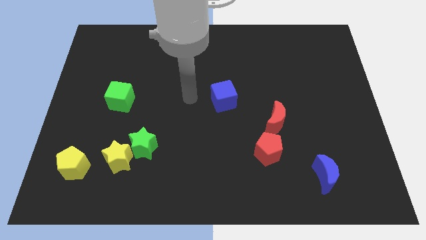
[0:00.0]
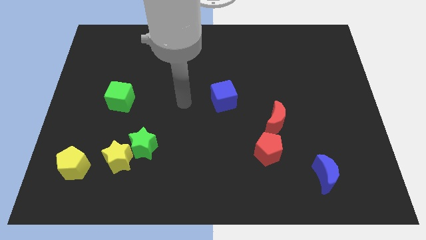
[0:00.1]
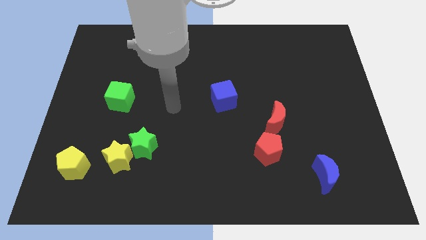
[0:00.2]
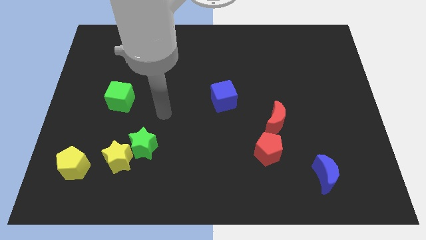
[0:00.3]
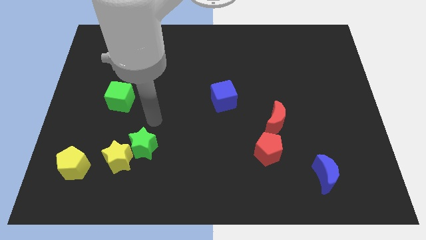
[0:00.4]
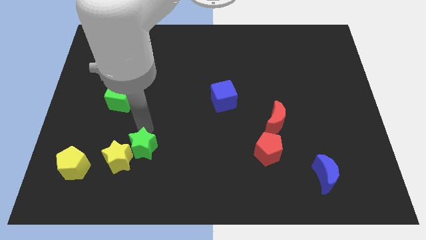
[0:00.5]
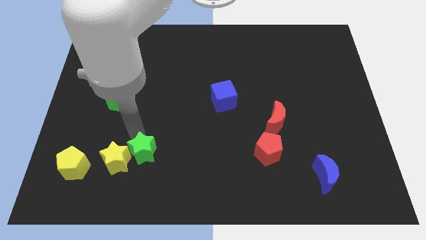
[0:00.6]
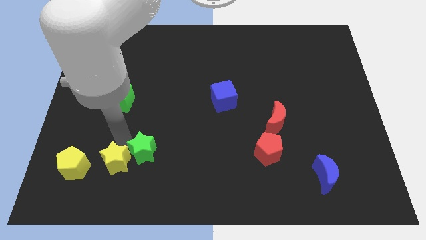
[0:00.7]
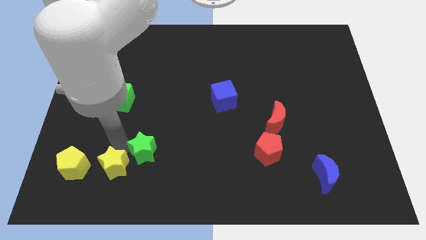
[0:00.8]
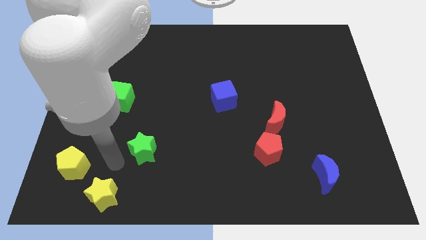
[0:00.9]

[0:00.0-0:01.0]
move the green star away from the yellow star

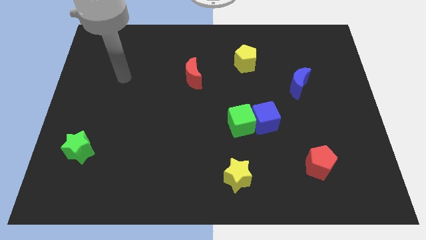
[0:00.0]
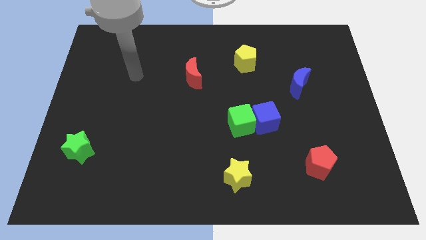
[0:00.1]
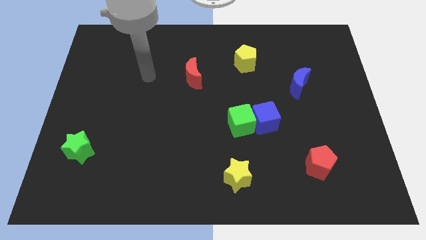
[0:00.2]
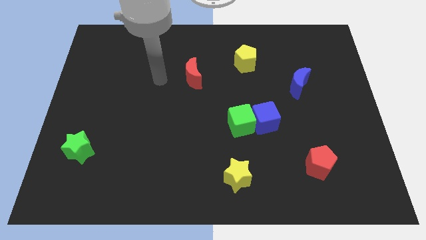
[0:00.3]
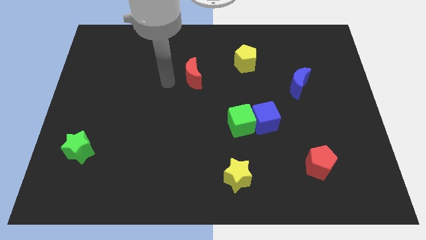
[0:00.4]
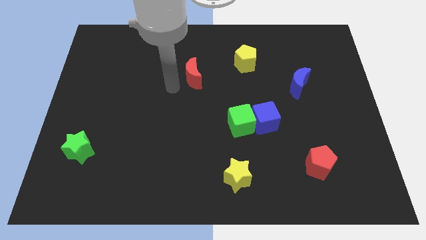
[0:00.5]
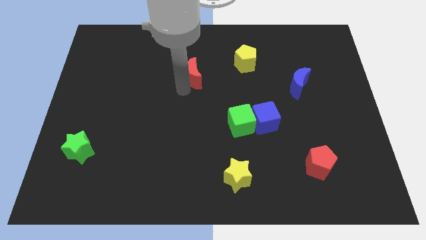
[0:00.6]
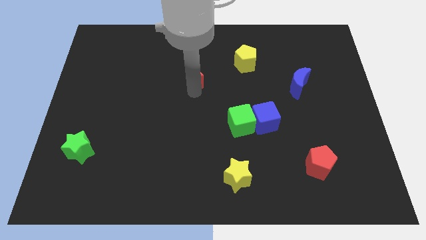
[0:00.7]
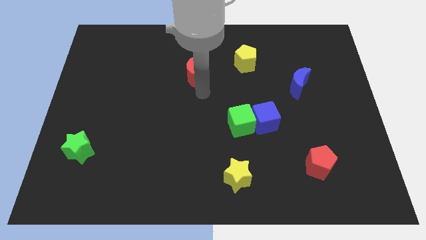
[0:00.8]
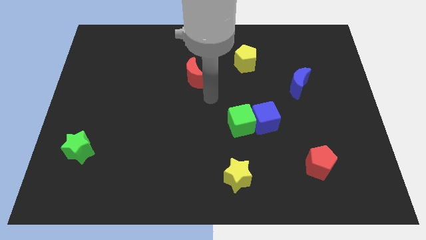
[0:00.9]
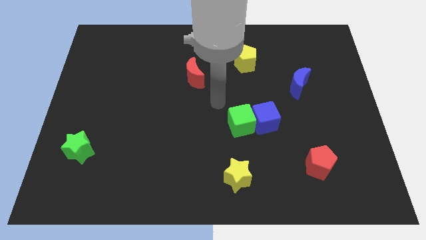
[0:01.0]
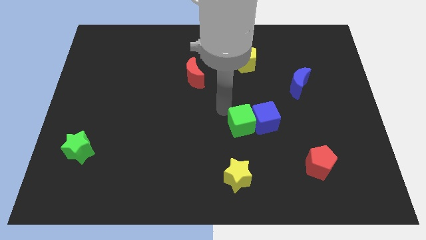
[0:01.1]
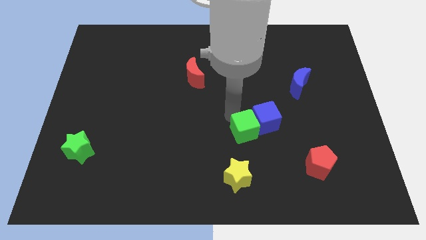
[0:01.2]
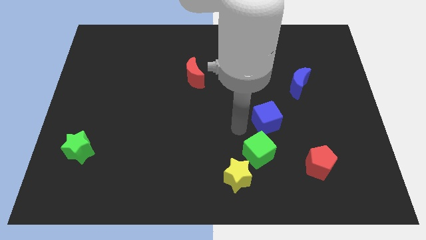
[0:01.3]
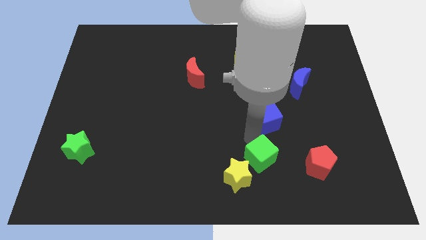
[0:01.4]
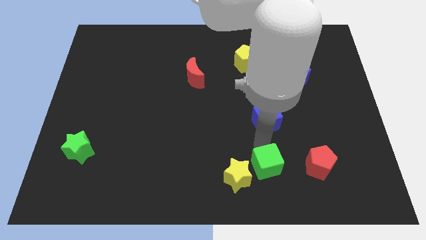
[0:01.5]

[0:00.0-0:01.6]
pull the blue cube apart from the green cube

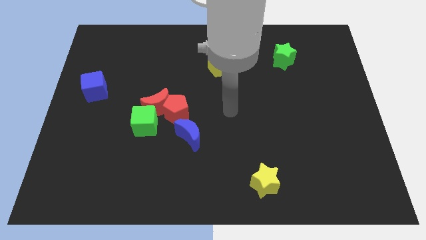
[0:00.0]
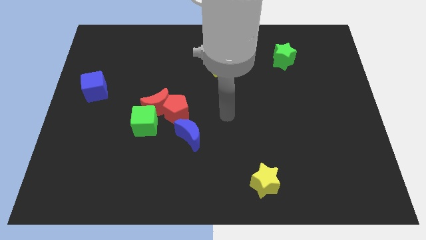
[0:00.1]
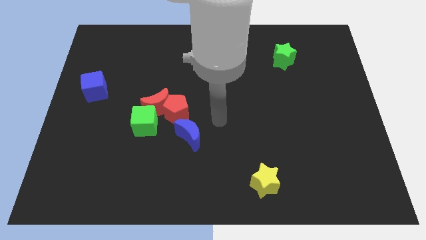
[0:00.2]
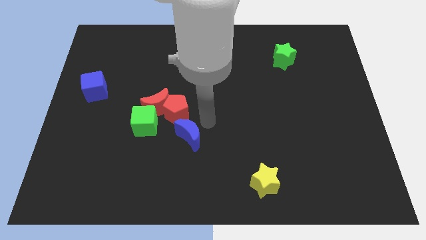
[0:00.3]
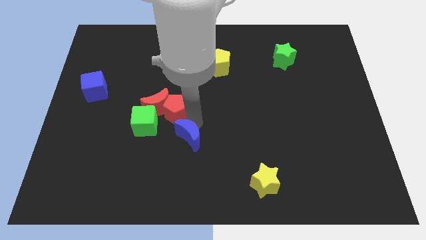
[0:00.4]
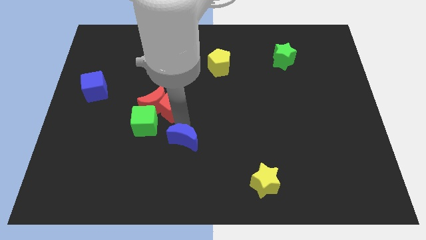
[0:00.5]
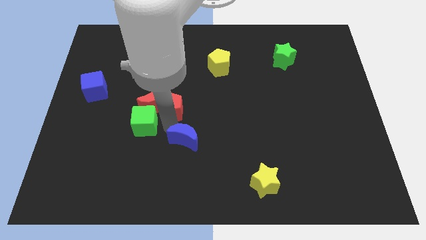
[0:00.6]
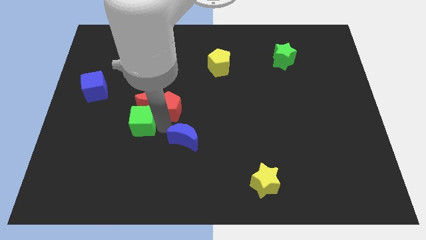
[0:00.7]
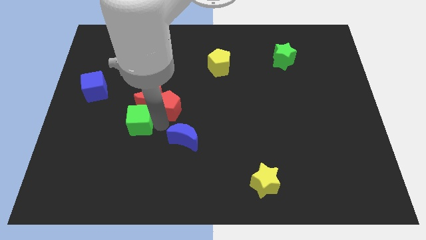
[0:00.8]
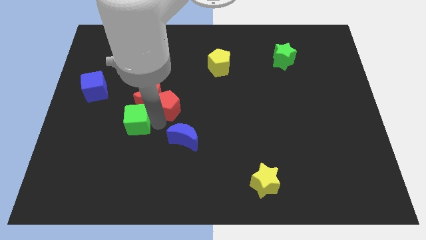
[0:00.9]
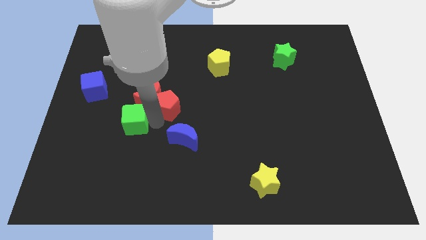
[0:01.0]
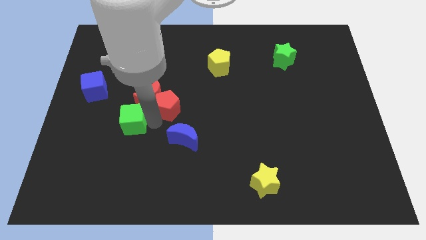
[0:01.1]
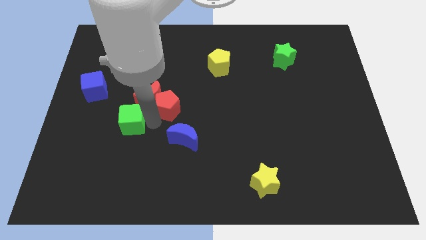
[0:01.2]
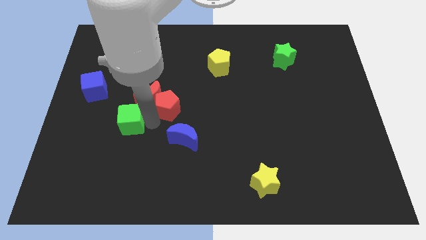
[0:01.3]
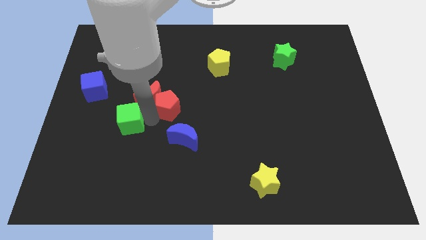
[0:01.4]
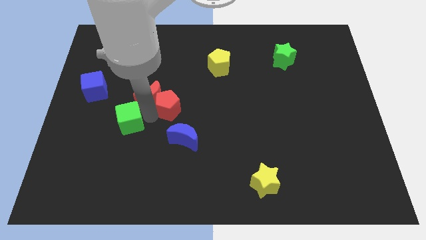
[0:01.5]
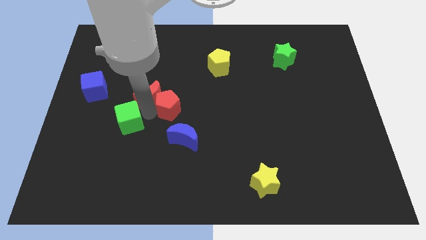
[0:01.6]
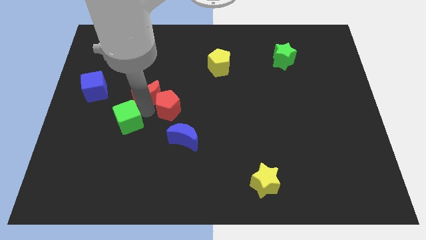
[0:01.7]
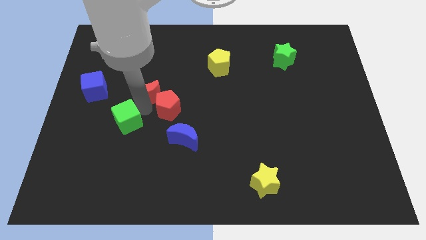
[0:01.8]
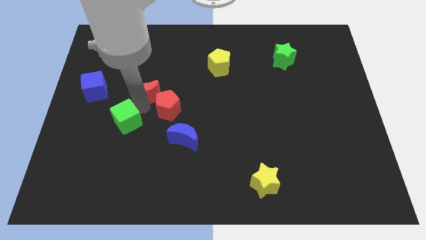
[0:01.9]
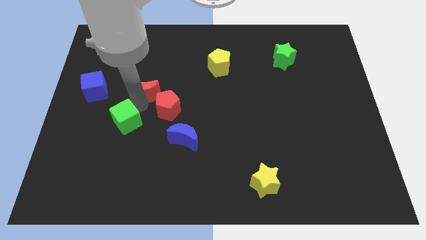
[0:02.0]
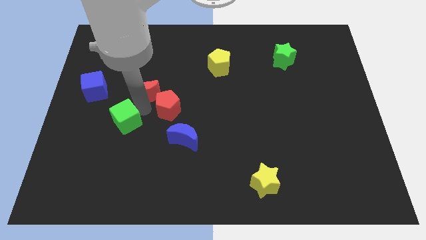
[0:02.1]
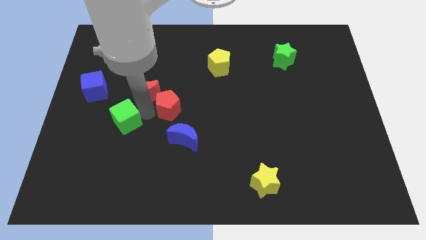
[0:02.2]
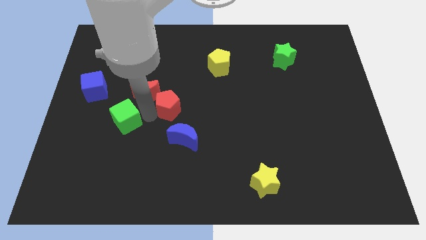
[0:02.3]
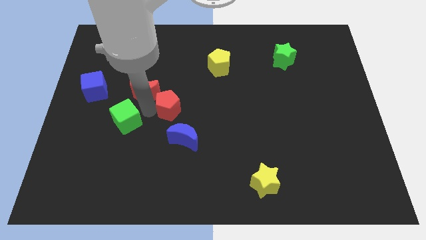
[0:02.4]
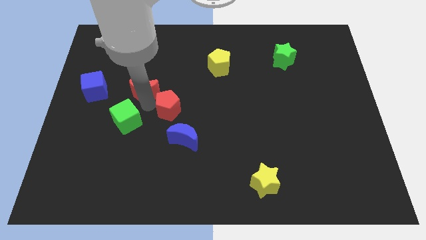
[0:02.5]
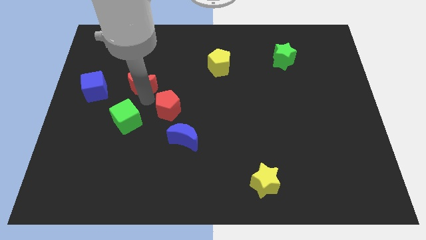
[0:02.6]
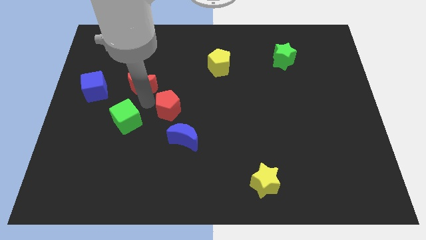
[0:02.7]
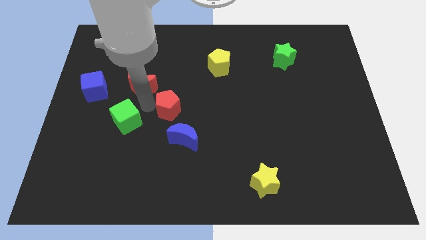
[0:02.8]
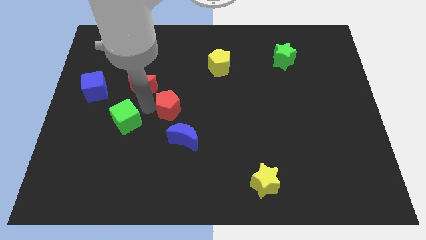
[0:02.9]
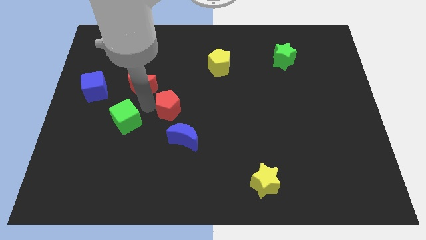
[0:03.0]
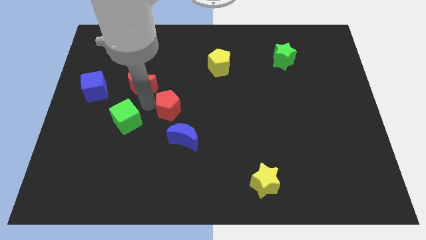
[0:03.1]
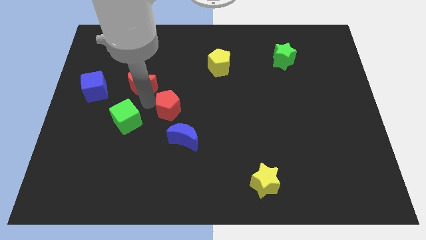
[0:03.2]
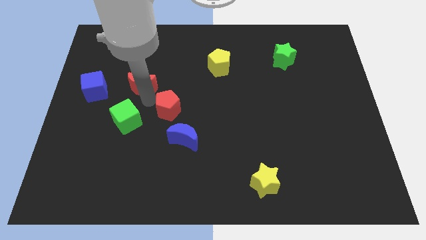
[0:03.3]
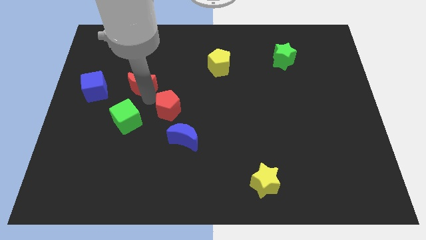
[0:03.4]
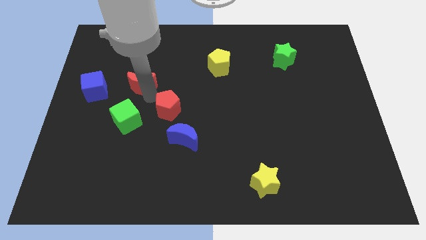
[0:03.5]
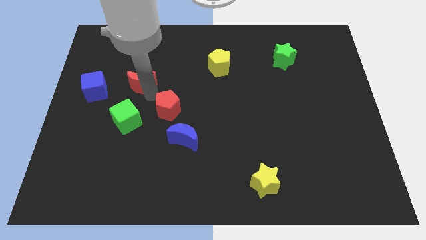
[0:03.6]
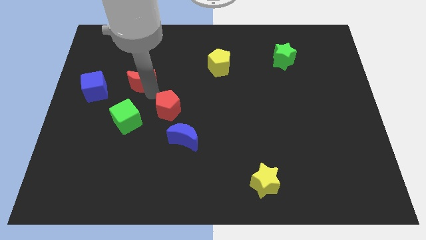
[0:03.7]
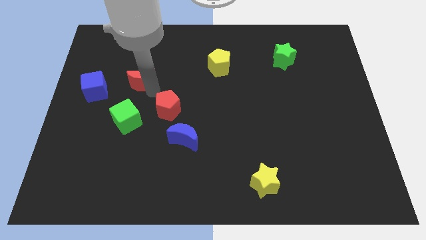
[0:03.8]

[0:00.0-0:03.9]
separate the red moon from the red pentagon and green cube

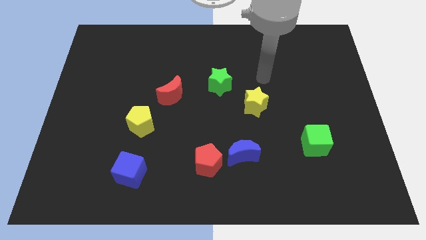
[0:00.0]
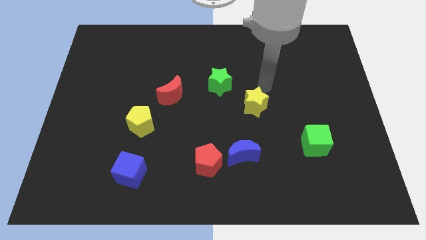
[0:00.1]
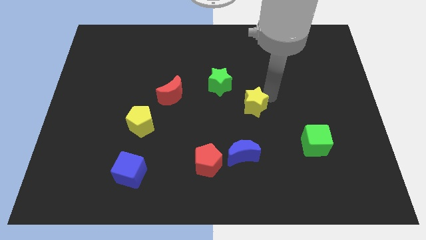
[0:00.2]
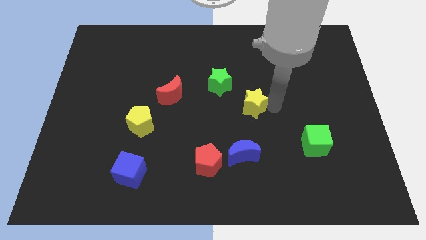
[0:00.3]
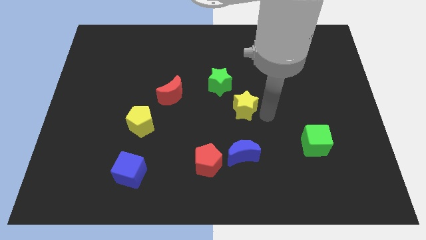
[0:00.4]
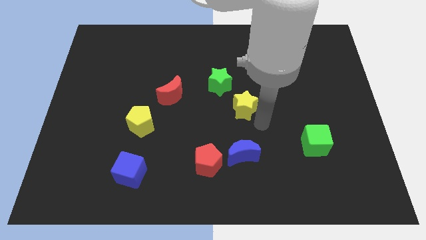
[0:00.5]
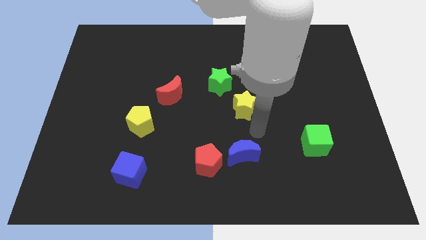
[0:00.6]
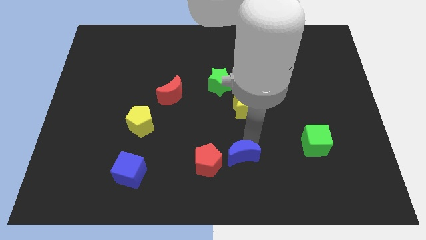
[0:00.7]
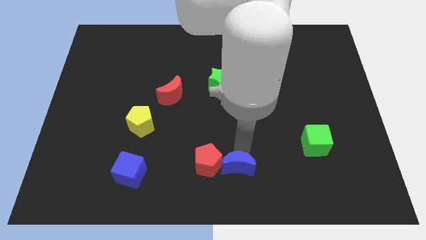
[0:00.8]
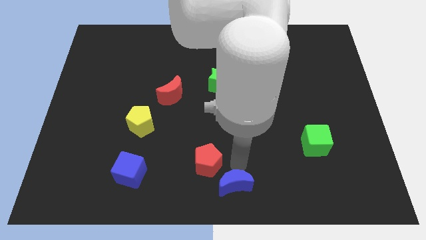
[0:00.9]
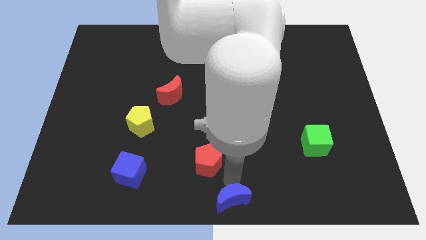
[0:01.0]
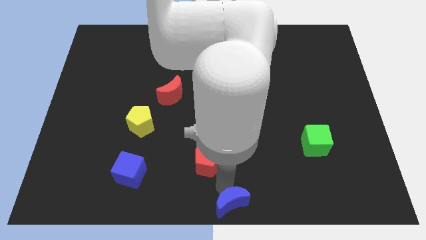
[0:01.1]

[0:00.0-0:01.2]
pull the red pentagon apart from the blue moon

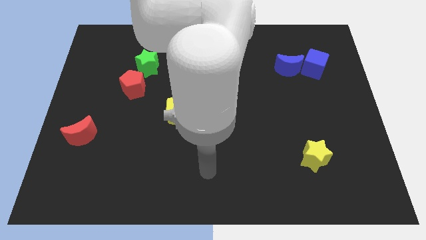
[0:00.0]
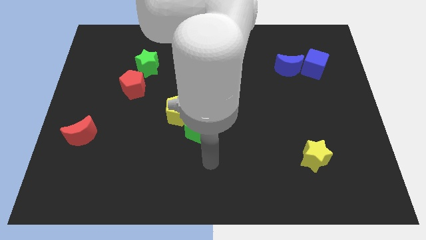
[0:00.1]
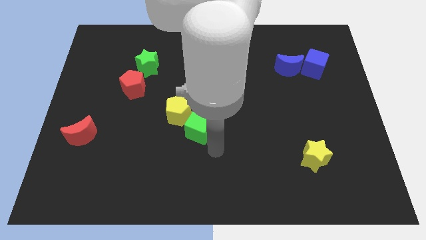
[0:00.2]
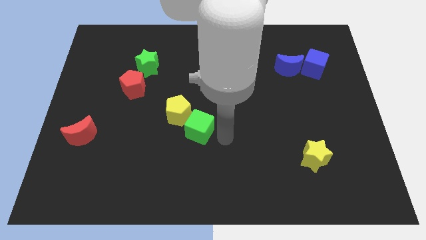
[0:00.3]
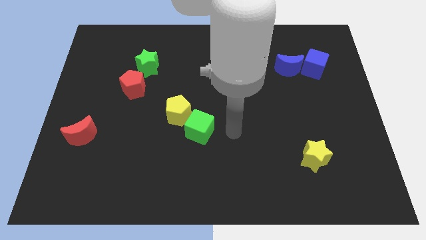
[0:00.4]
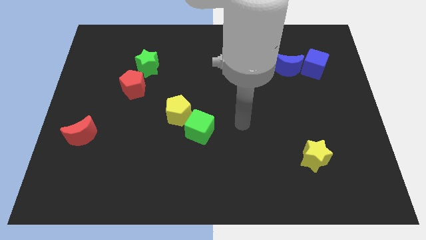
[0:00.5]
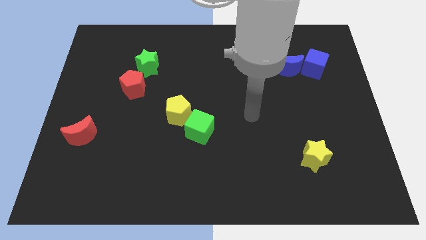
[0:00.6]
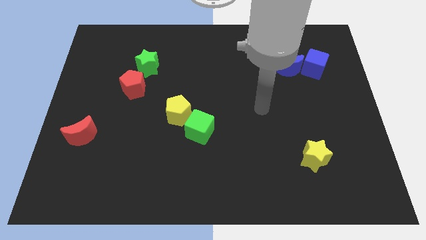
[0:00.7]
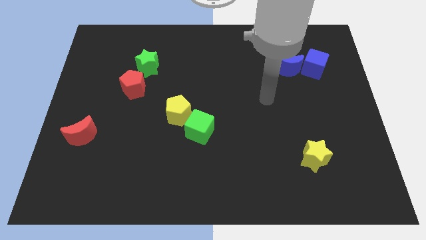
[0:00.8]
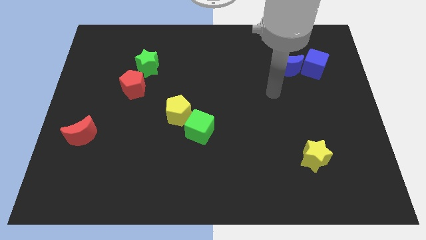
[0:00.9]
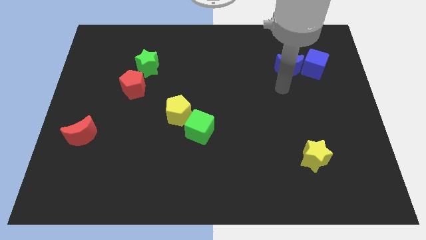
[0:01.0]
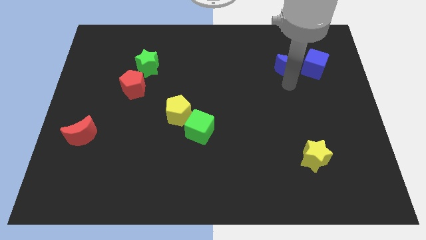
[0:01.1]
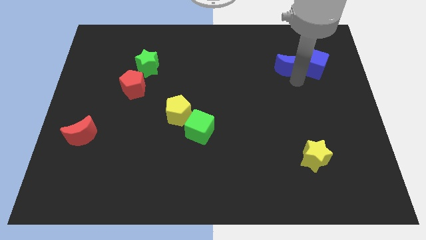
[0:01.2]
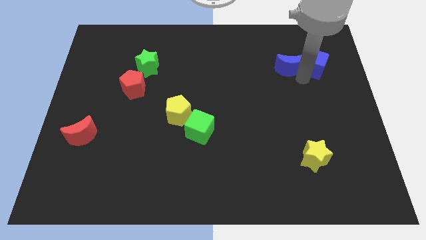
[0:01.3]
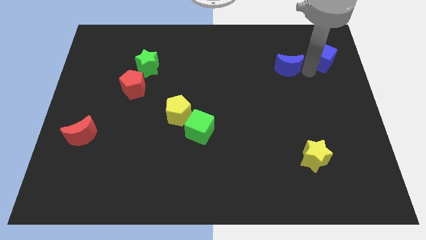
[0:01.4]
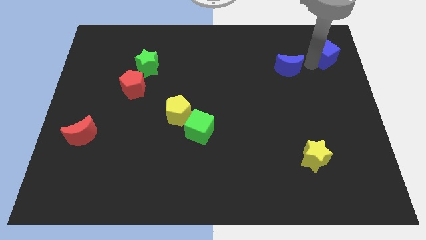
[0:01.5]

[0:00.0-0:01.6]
pull the blue moon apart from the blue cube
